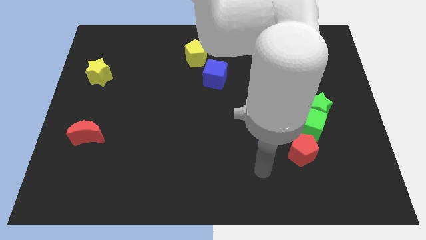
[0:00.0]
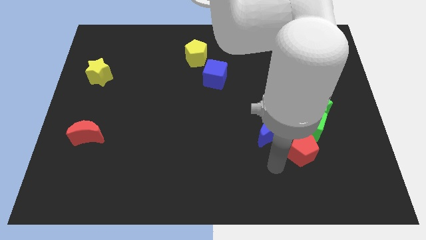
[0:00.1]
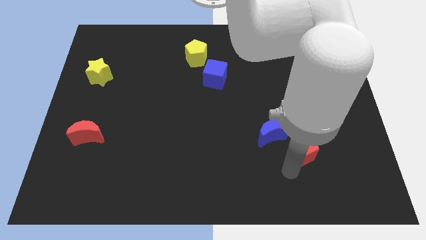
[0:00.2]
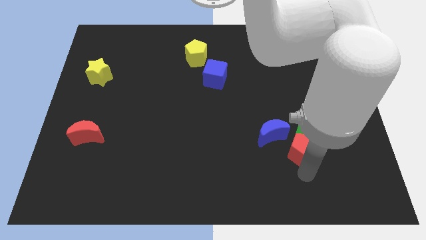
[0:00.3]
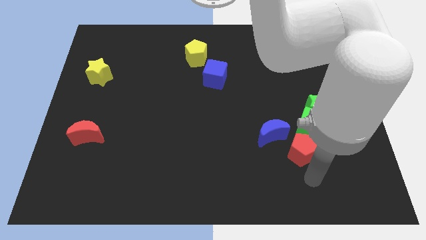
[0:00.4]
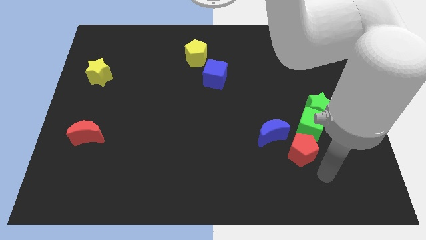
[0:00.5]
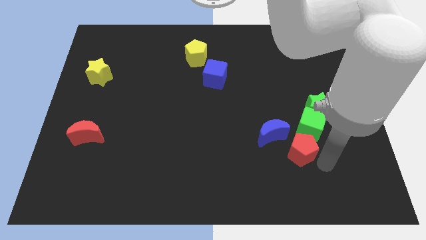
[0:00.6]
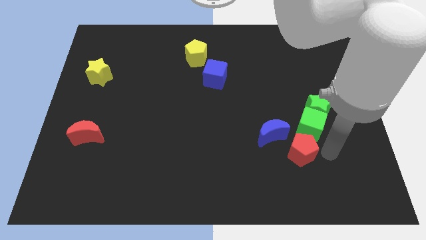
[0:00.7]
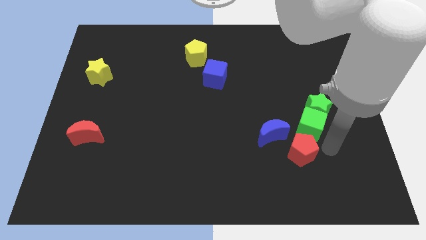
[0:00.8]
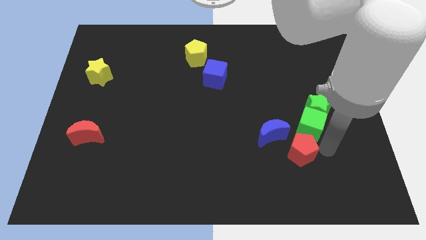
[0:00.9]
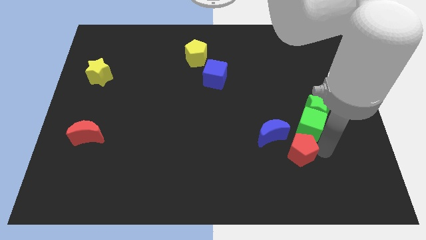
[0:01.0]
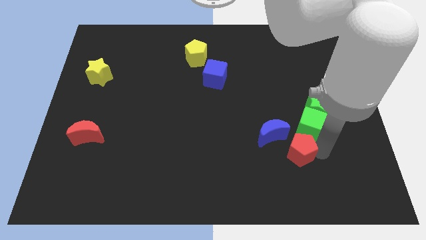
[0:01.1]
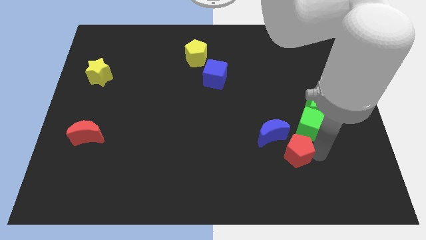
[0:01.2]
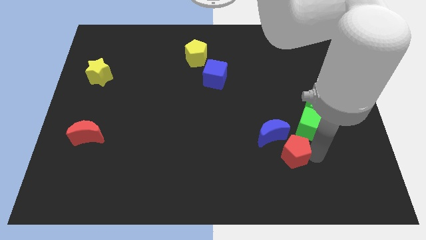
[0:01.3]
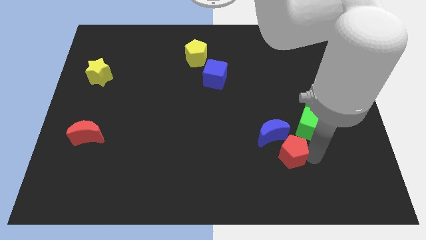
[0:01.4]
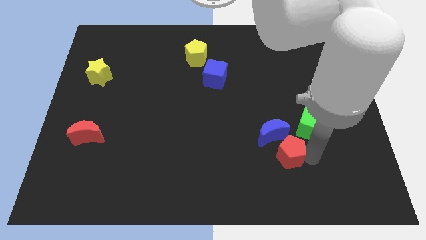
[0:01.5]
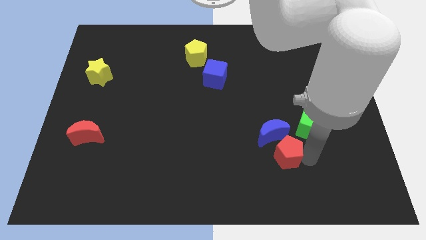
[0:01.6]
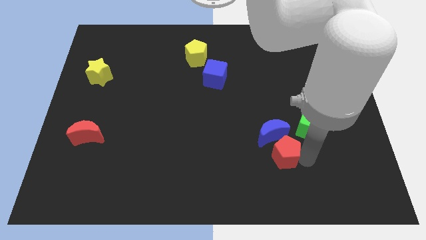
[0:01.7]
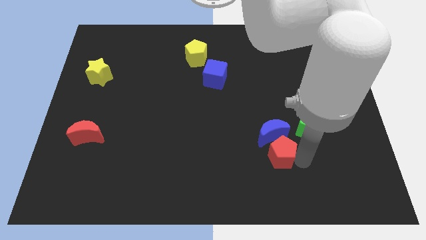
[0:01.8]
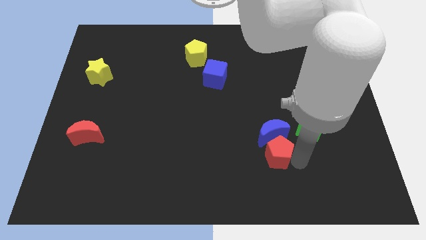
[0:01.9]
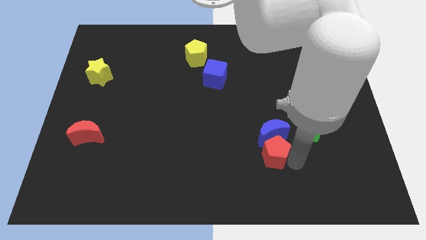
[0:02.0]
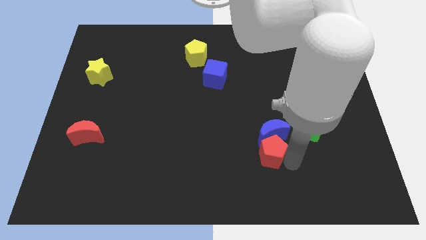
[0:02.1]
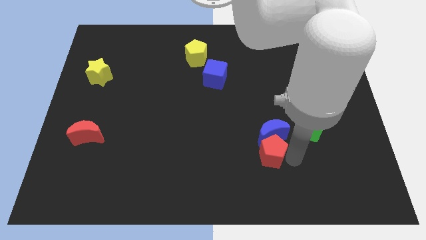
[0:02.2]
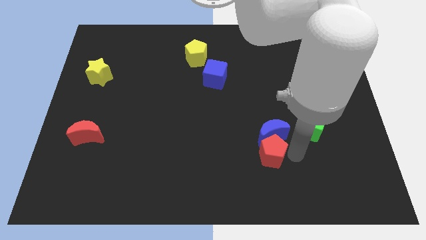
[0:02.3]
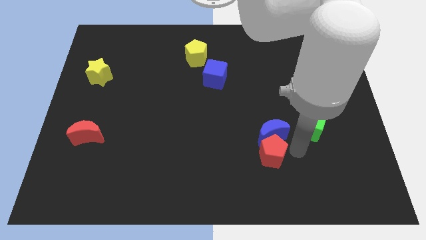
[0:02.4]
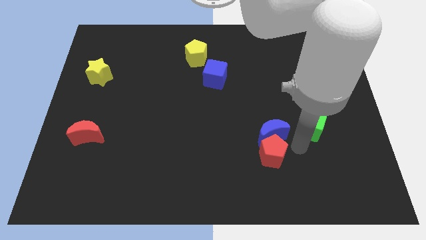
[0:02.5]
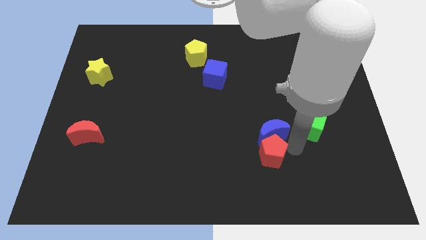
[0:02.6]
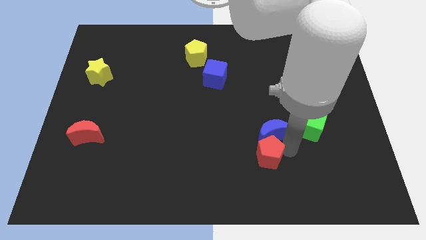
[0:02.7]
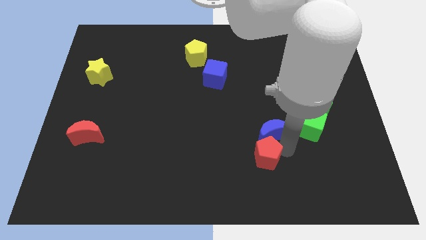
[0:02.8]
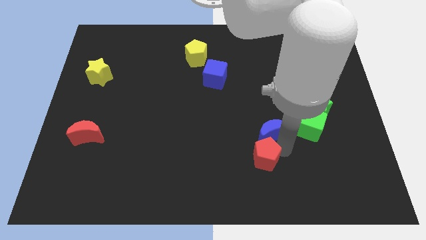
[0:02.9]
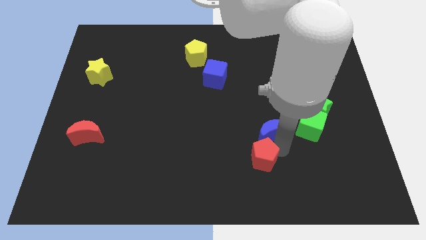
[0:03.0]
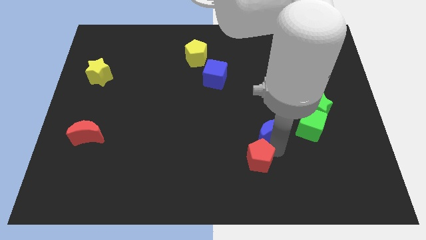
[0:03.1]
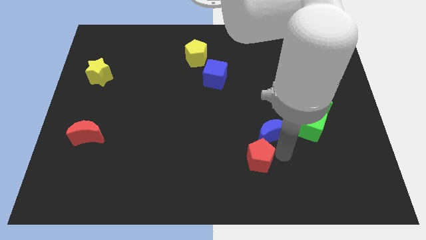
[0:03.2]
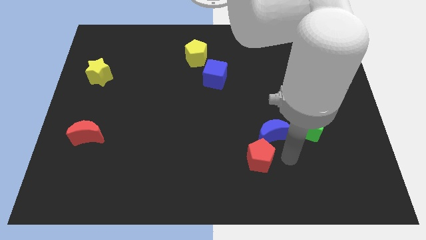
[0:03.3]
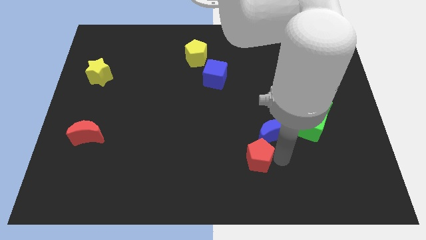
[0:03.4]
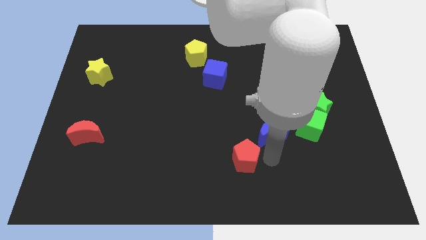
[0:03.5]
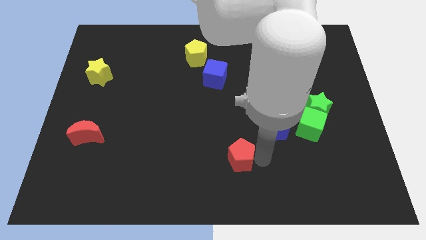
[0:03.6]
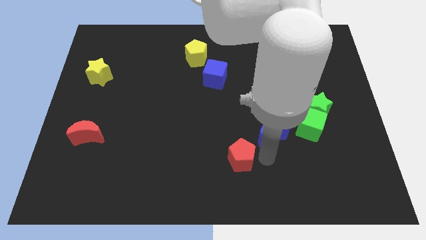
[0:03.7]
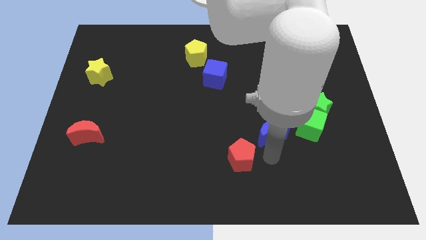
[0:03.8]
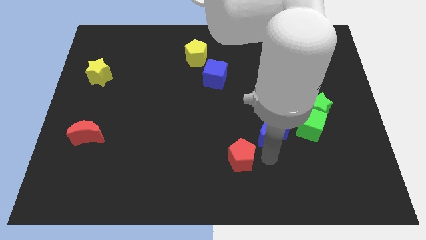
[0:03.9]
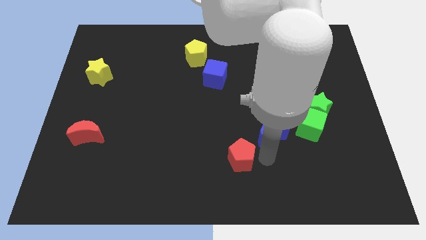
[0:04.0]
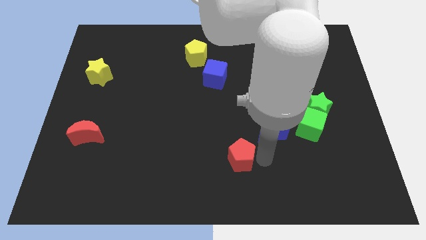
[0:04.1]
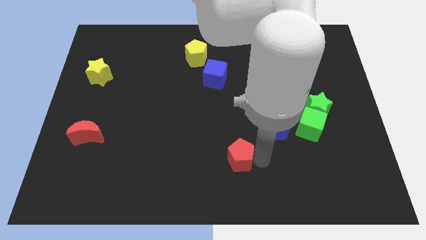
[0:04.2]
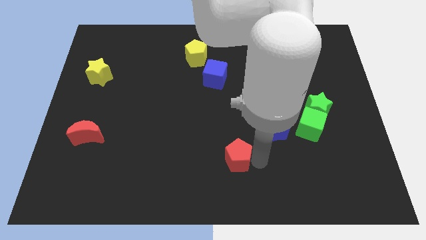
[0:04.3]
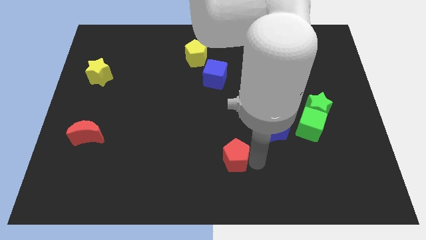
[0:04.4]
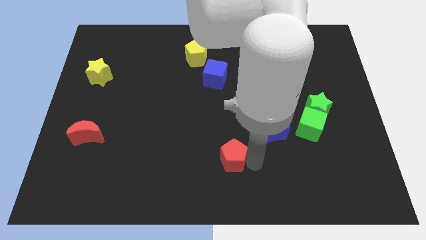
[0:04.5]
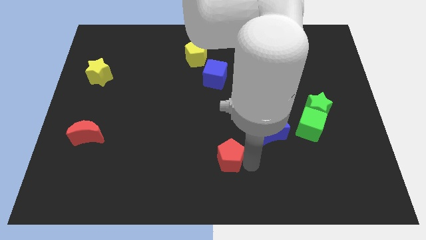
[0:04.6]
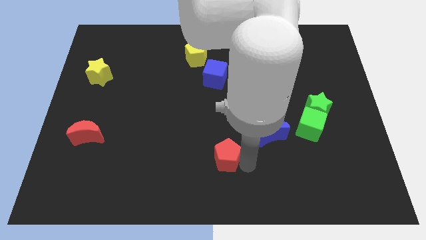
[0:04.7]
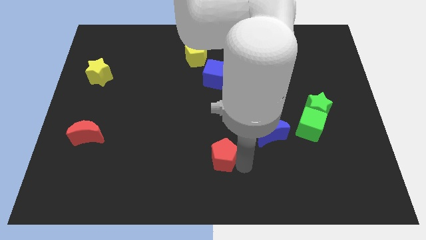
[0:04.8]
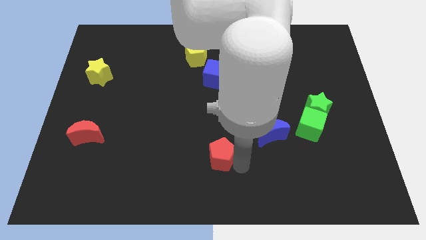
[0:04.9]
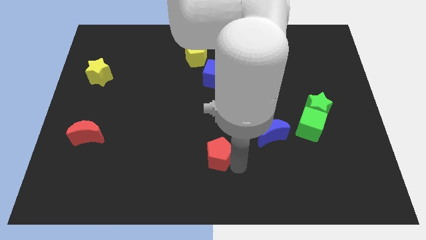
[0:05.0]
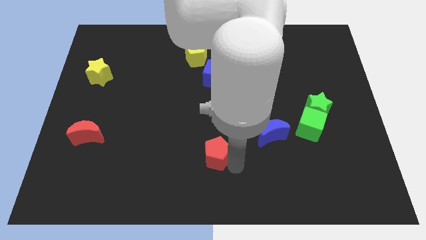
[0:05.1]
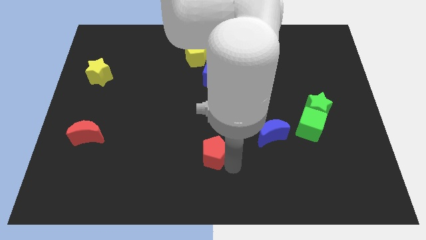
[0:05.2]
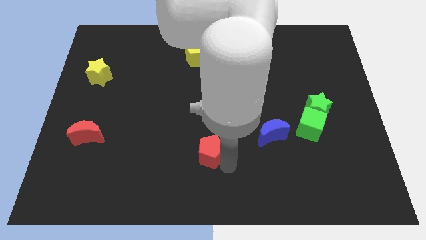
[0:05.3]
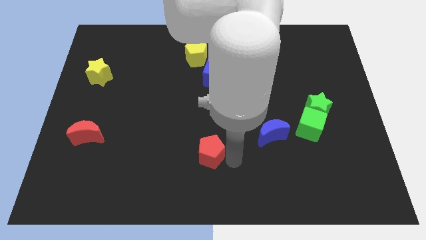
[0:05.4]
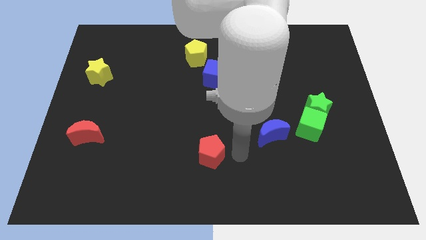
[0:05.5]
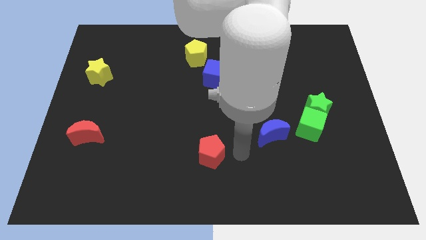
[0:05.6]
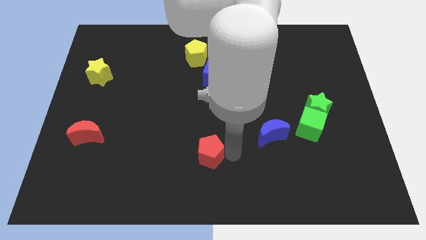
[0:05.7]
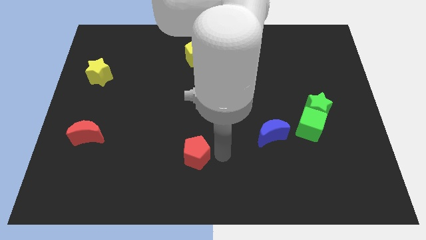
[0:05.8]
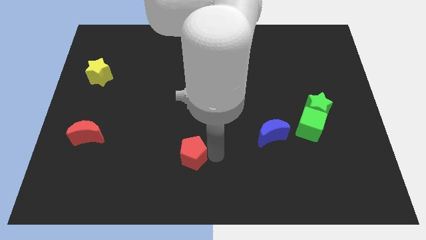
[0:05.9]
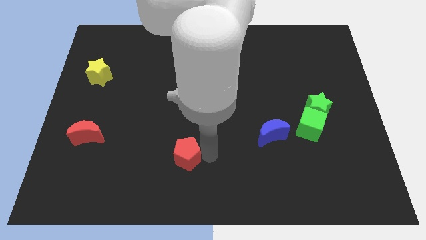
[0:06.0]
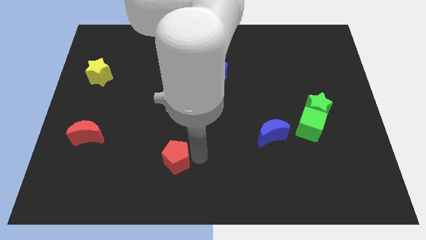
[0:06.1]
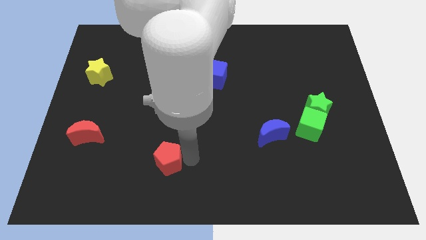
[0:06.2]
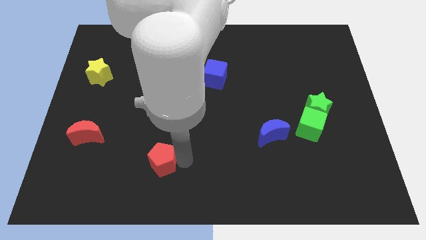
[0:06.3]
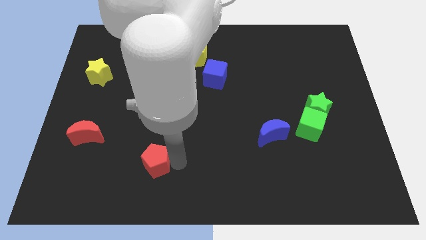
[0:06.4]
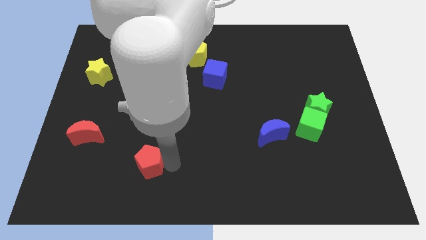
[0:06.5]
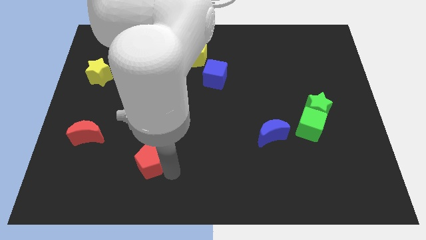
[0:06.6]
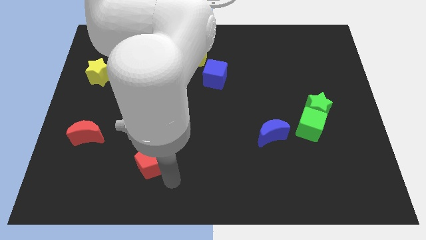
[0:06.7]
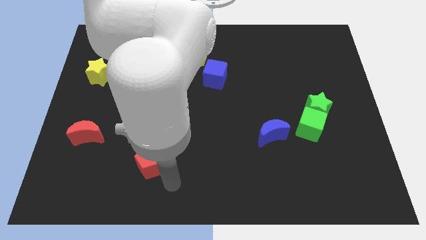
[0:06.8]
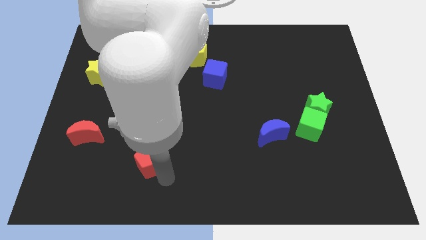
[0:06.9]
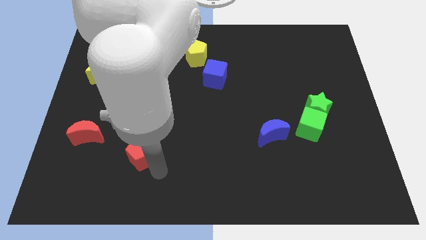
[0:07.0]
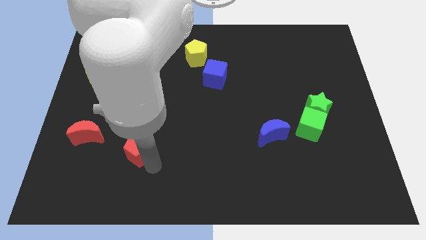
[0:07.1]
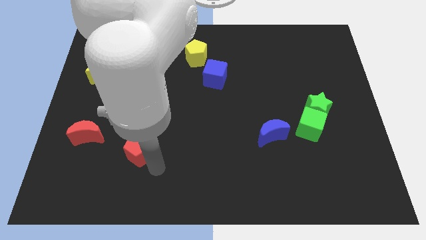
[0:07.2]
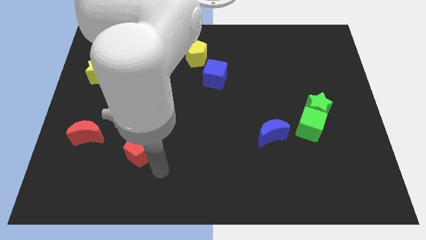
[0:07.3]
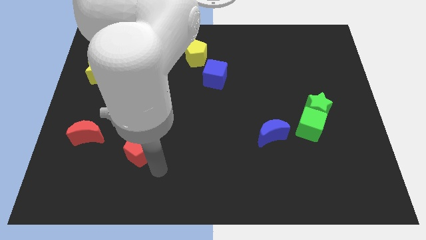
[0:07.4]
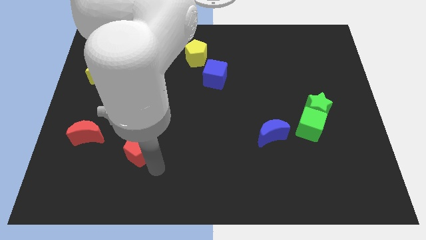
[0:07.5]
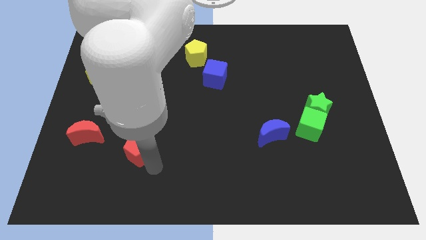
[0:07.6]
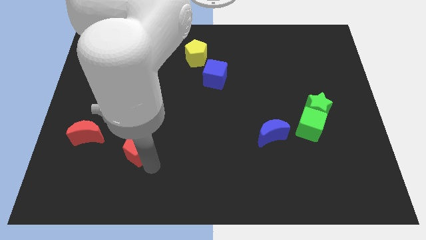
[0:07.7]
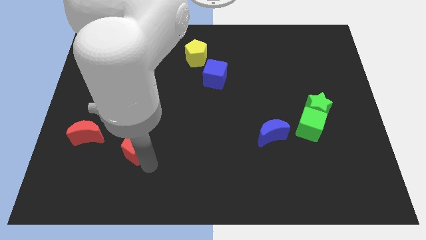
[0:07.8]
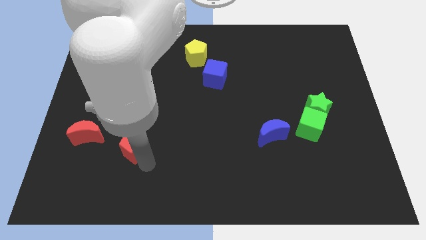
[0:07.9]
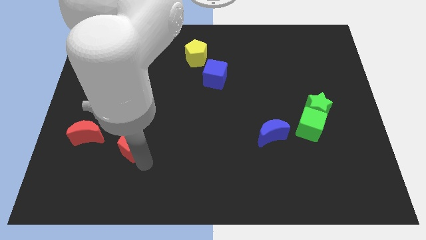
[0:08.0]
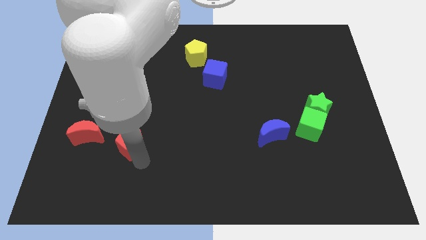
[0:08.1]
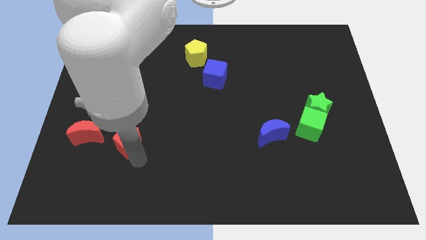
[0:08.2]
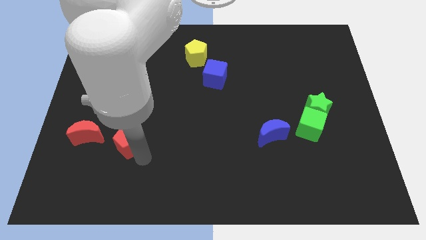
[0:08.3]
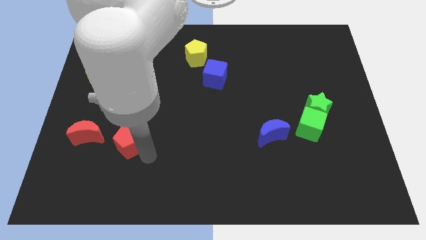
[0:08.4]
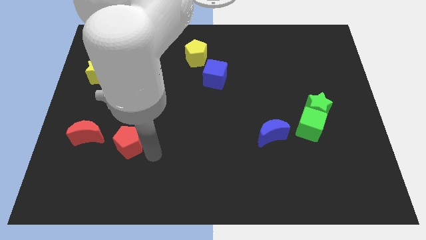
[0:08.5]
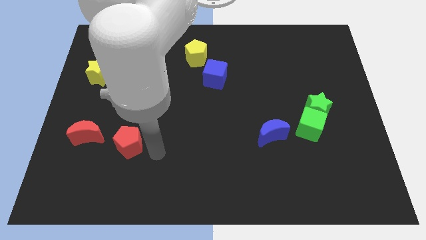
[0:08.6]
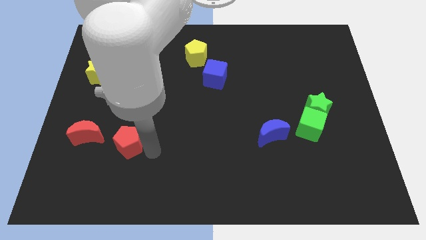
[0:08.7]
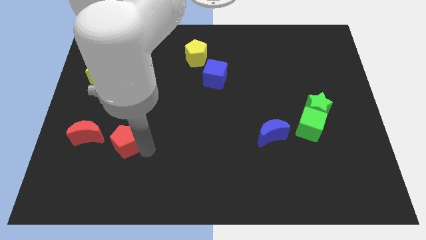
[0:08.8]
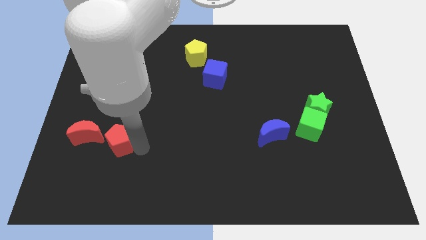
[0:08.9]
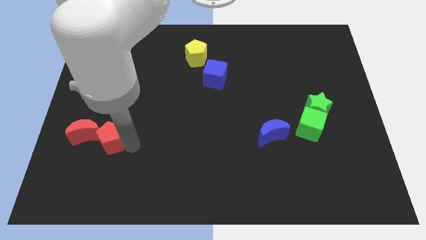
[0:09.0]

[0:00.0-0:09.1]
put the red pentagon to the red moon
